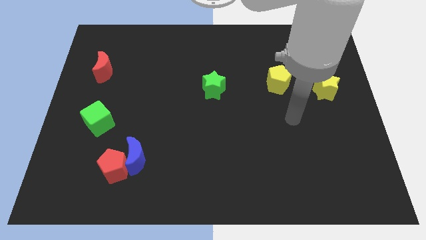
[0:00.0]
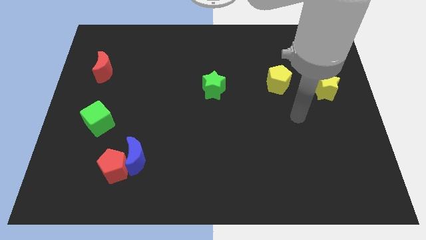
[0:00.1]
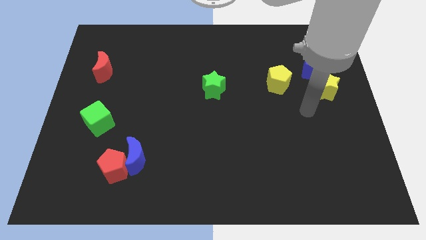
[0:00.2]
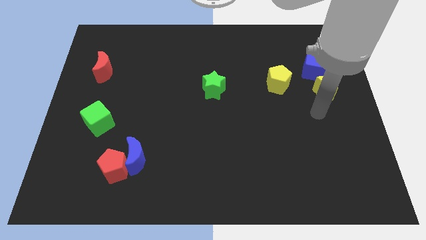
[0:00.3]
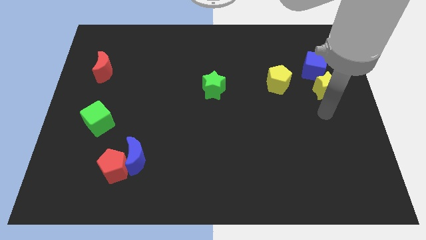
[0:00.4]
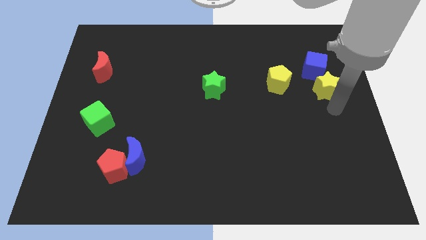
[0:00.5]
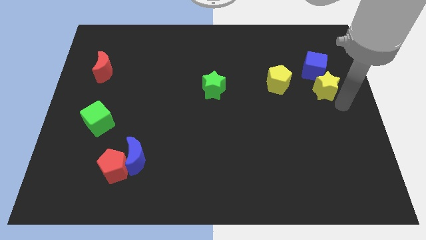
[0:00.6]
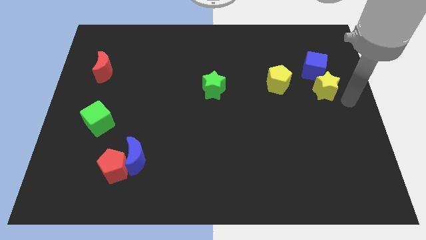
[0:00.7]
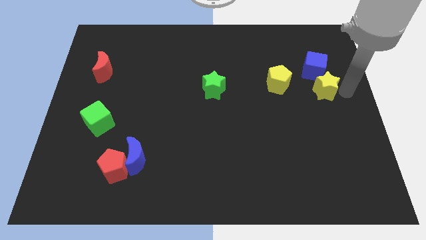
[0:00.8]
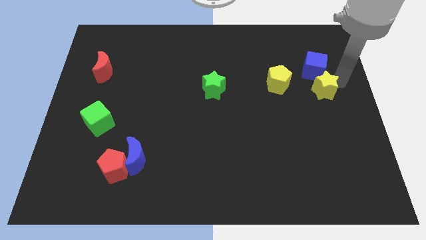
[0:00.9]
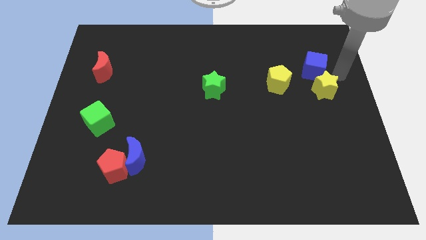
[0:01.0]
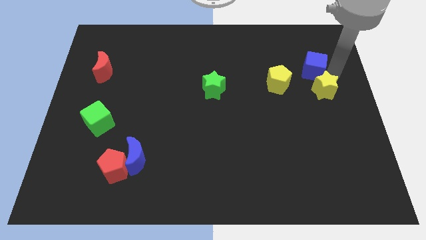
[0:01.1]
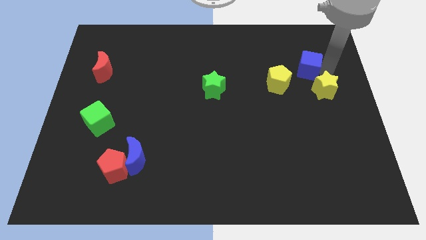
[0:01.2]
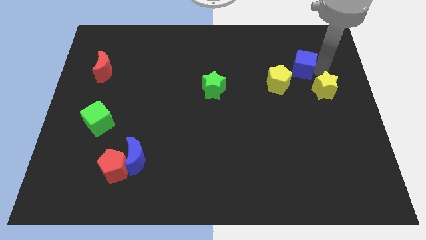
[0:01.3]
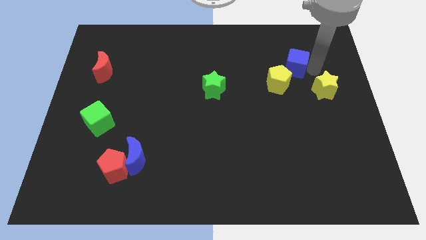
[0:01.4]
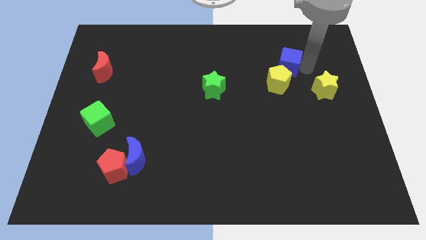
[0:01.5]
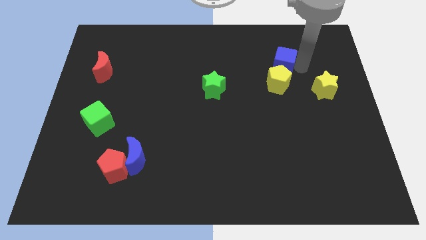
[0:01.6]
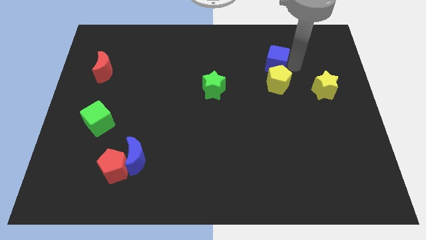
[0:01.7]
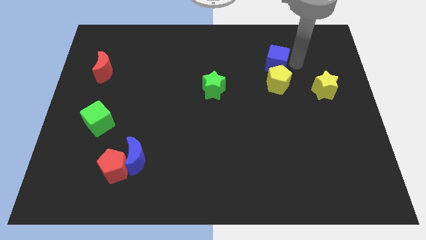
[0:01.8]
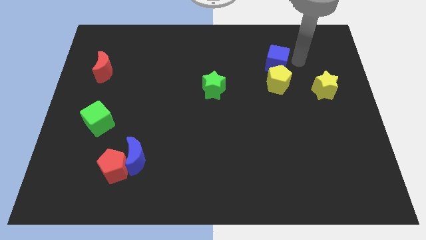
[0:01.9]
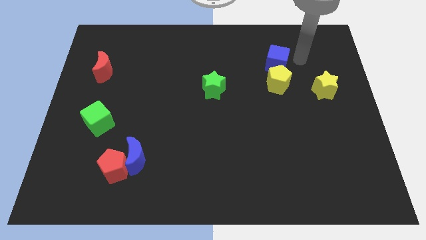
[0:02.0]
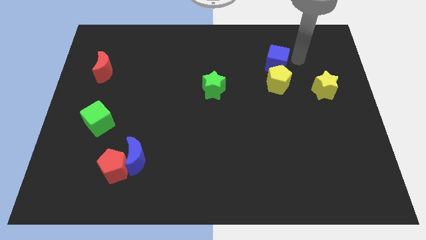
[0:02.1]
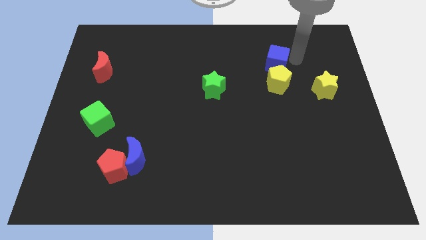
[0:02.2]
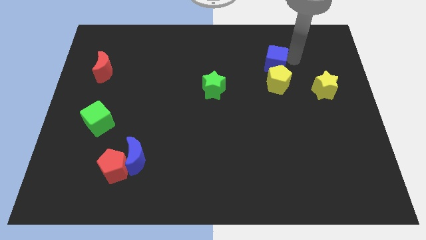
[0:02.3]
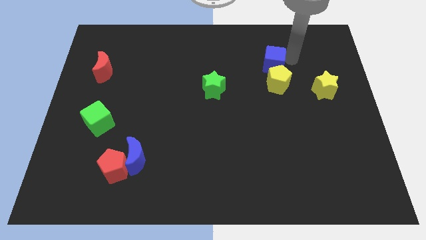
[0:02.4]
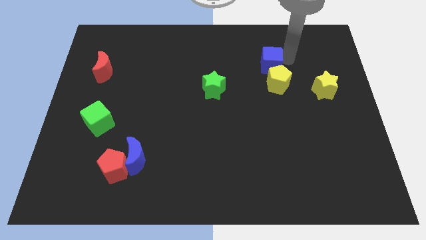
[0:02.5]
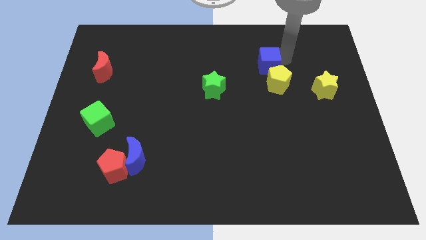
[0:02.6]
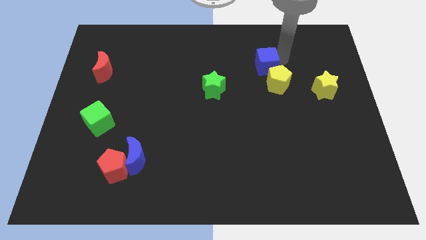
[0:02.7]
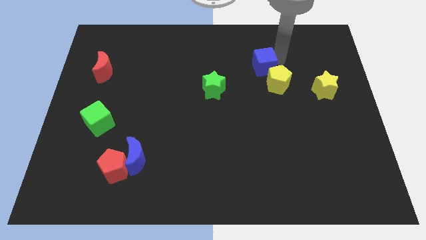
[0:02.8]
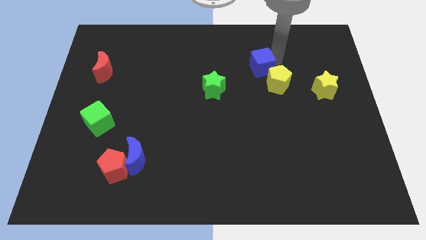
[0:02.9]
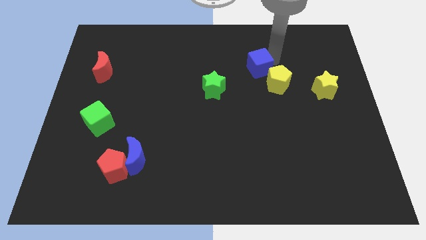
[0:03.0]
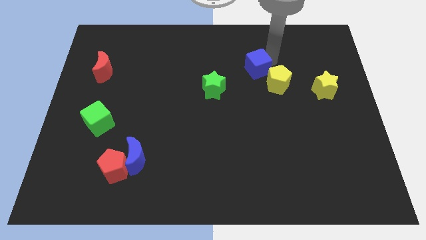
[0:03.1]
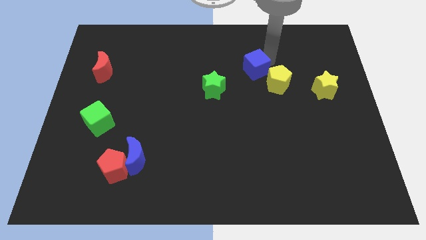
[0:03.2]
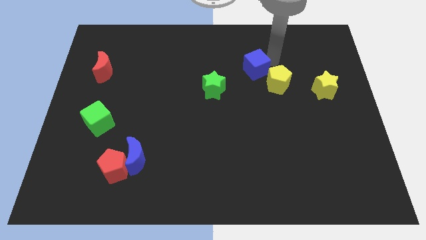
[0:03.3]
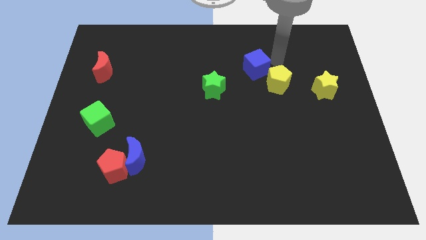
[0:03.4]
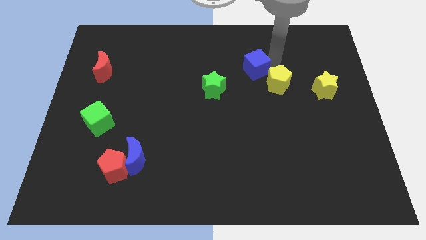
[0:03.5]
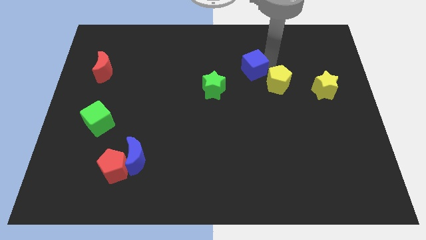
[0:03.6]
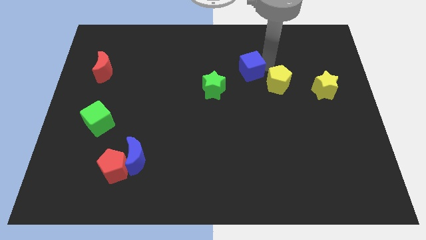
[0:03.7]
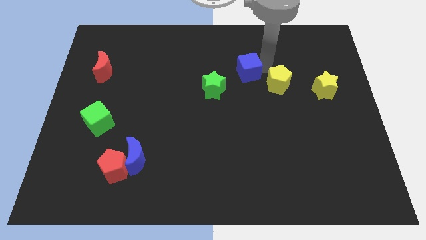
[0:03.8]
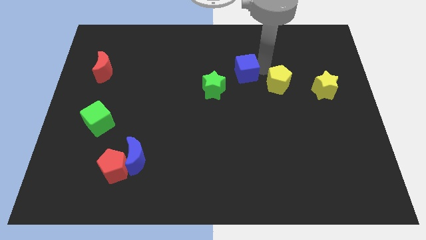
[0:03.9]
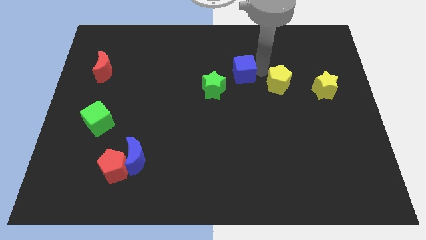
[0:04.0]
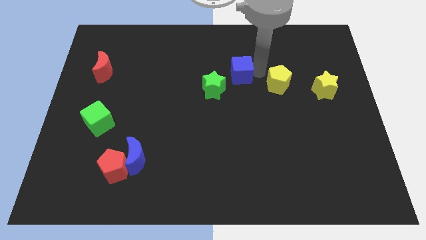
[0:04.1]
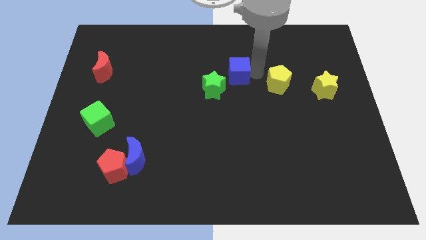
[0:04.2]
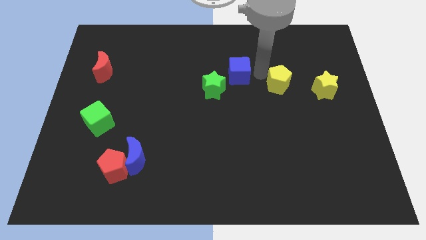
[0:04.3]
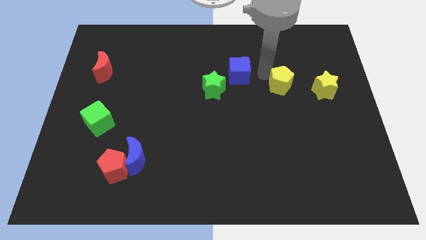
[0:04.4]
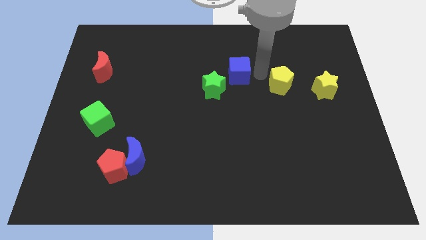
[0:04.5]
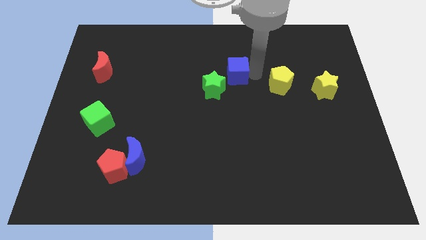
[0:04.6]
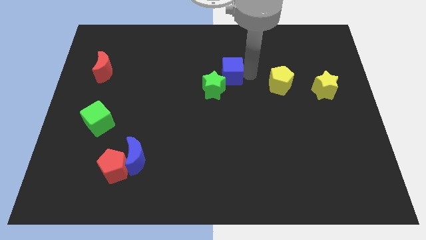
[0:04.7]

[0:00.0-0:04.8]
push the blue cube left

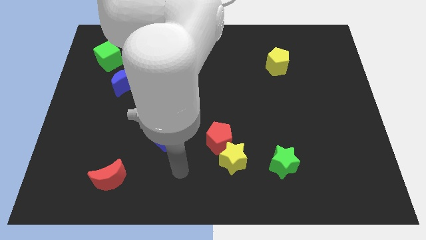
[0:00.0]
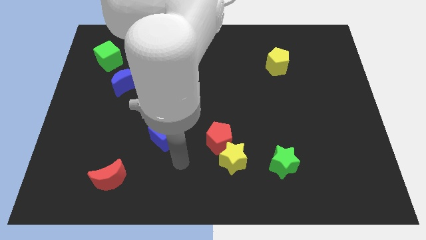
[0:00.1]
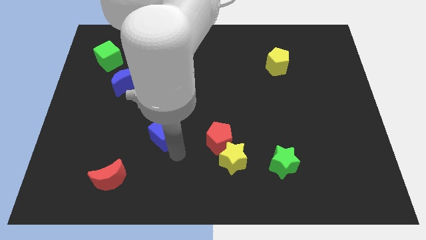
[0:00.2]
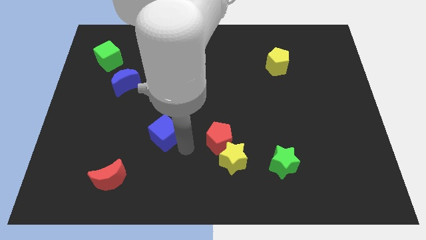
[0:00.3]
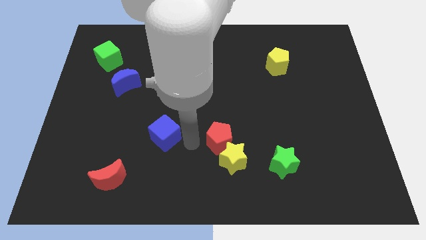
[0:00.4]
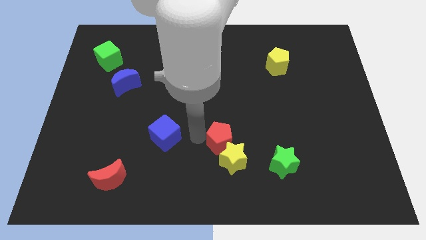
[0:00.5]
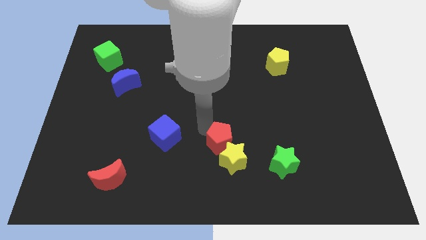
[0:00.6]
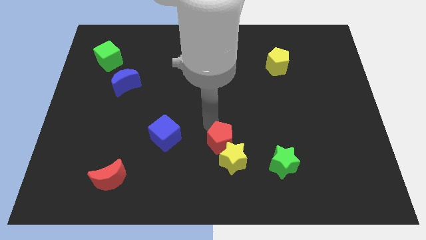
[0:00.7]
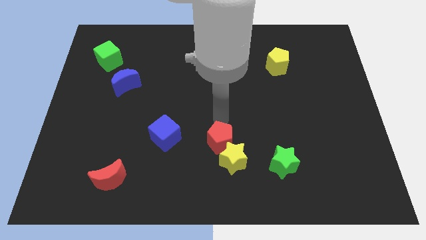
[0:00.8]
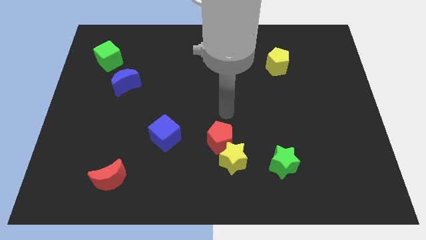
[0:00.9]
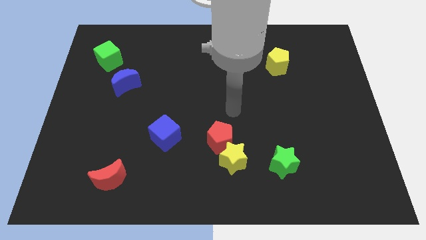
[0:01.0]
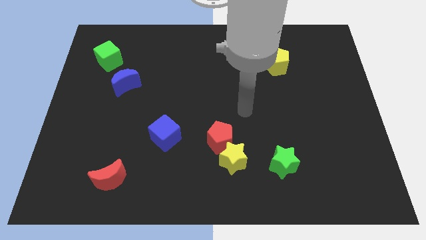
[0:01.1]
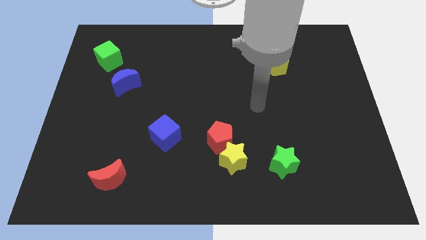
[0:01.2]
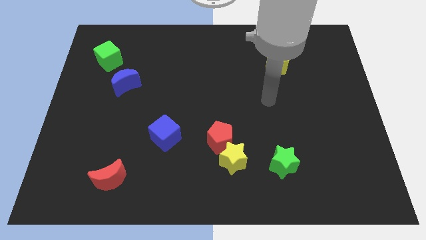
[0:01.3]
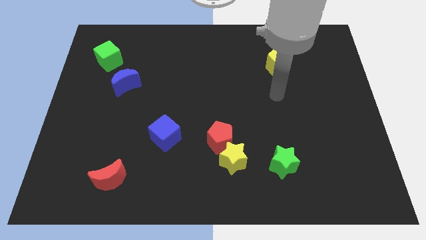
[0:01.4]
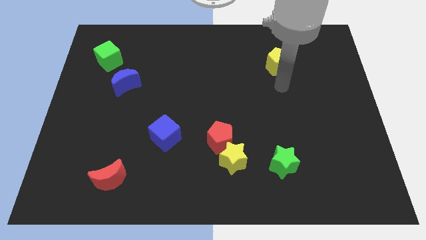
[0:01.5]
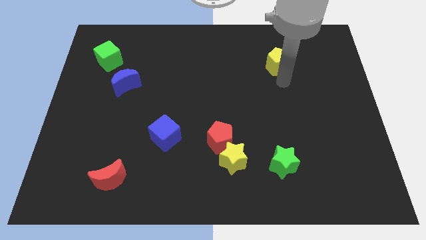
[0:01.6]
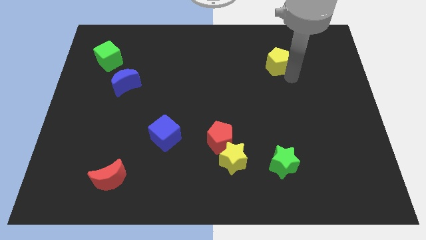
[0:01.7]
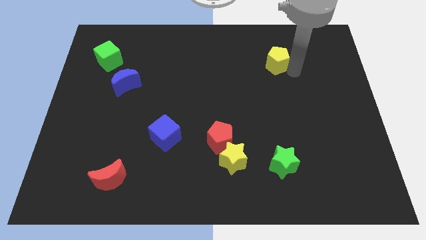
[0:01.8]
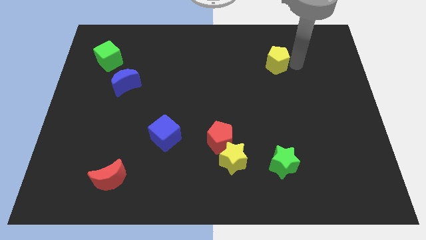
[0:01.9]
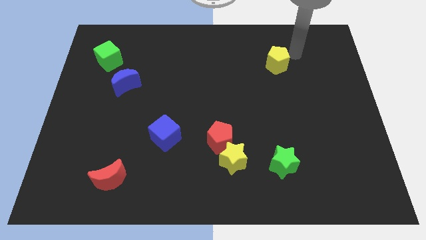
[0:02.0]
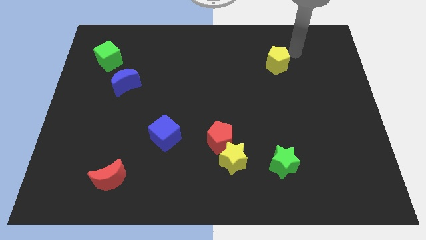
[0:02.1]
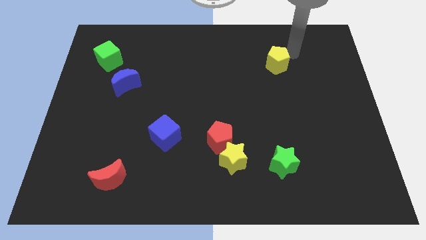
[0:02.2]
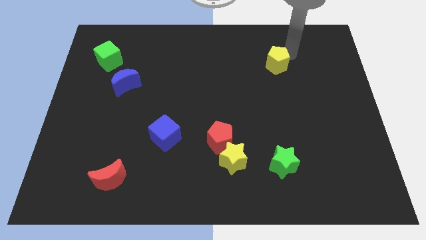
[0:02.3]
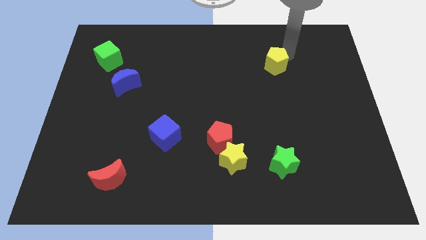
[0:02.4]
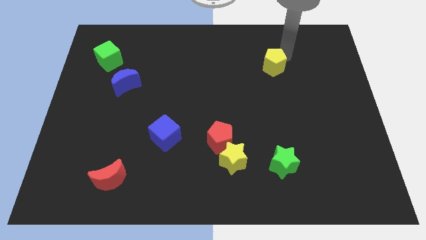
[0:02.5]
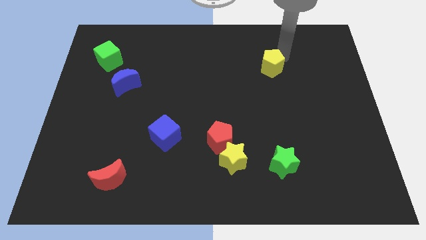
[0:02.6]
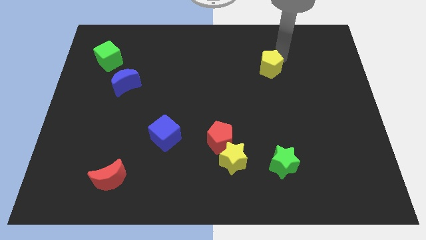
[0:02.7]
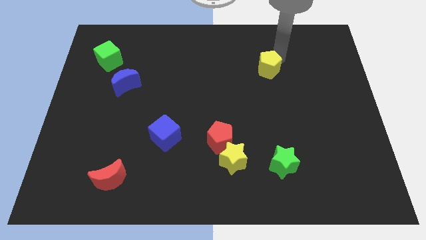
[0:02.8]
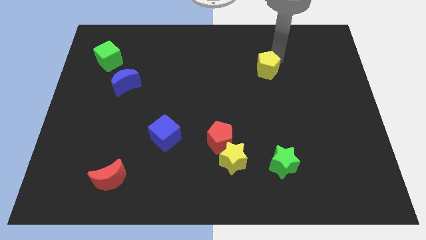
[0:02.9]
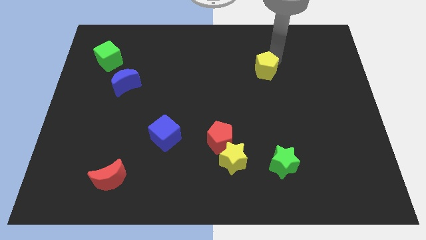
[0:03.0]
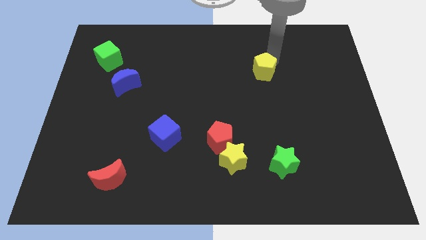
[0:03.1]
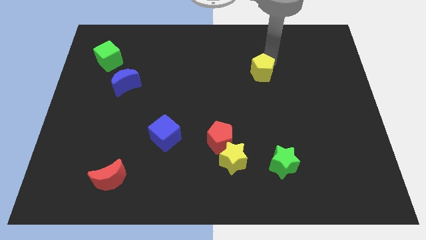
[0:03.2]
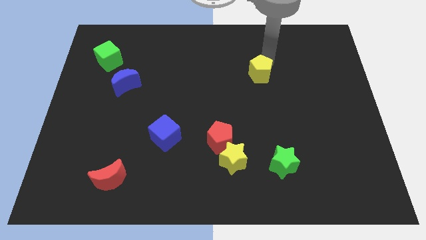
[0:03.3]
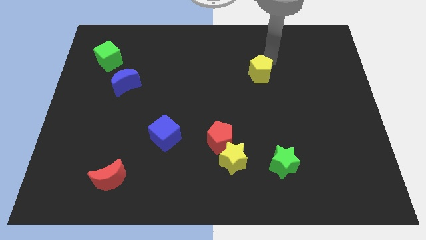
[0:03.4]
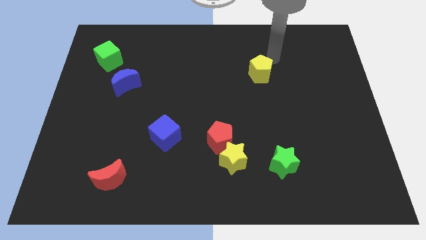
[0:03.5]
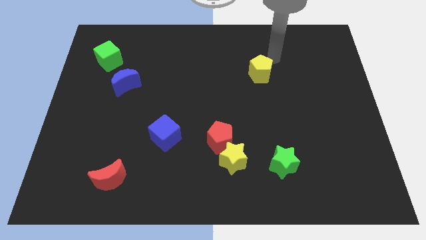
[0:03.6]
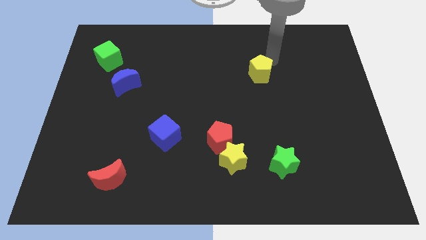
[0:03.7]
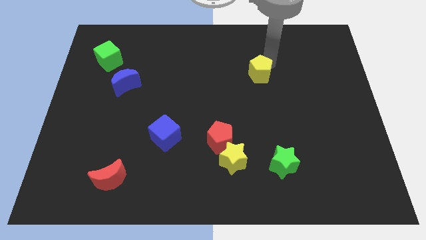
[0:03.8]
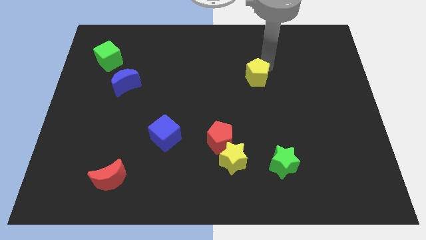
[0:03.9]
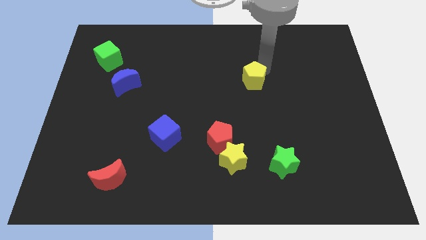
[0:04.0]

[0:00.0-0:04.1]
slide the yellow pentagon somewhat down and to the left diagonally
